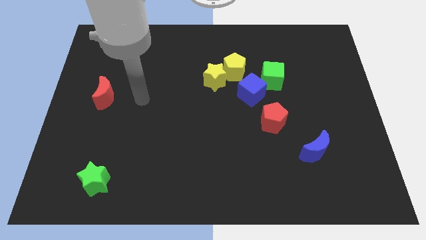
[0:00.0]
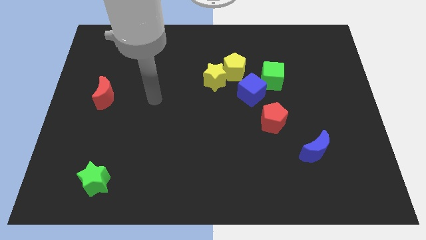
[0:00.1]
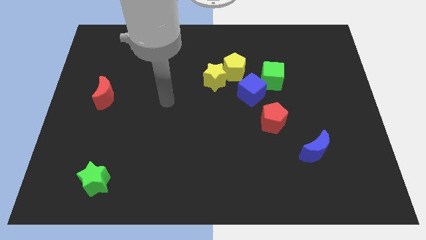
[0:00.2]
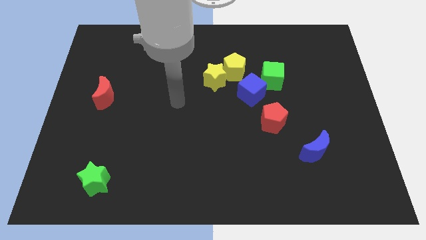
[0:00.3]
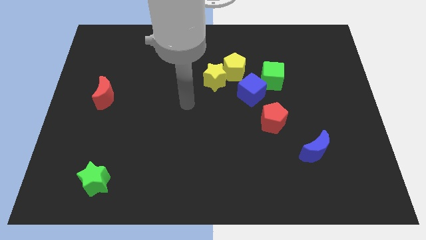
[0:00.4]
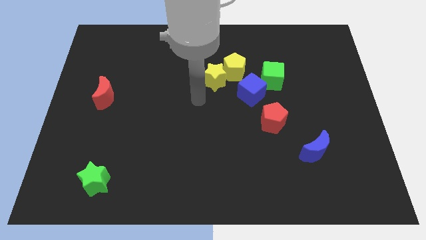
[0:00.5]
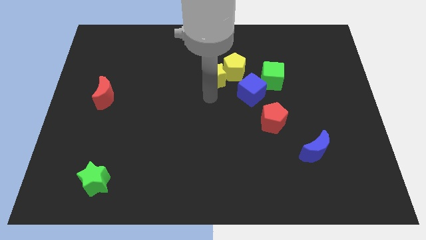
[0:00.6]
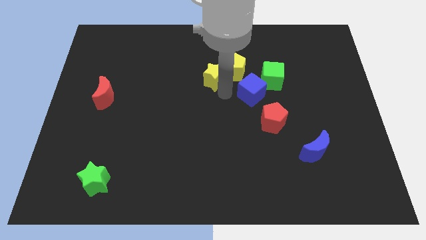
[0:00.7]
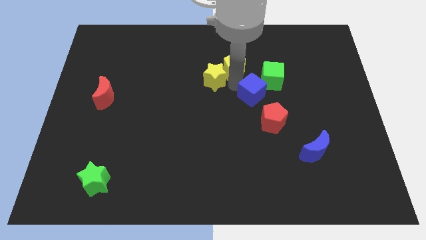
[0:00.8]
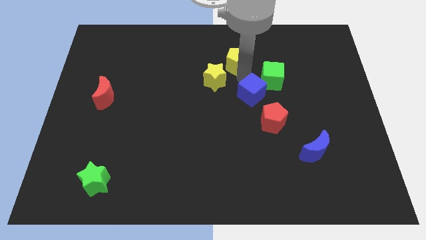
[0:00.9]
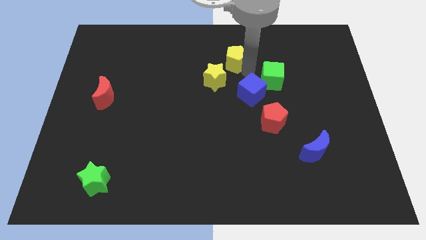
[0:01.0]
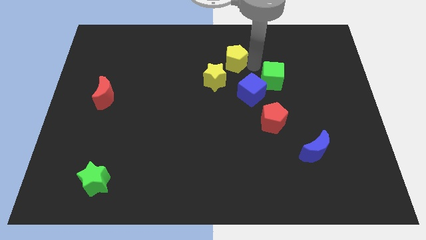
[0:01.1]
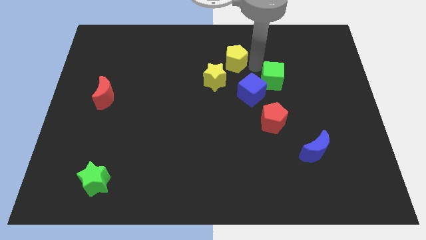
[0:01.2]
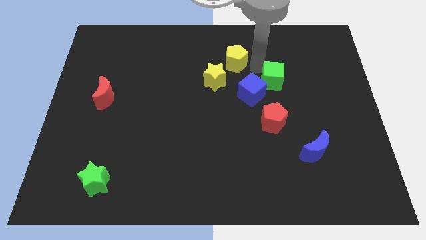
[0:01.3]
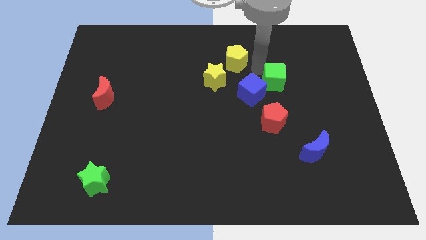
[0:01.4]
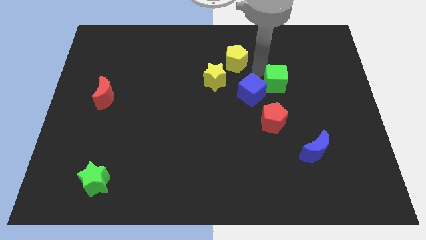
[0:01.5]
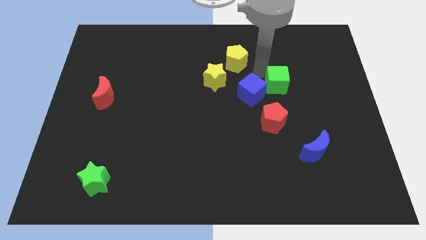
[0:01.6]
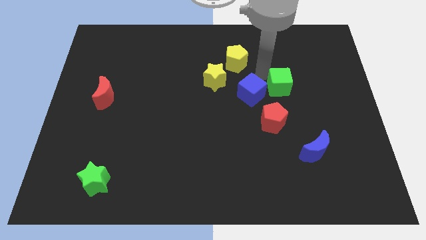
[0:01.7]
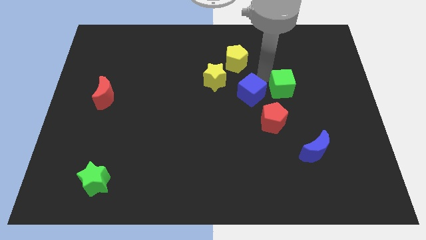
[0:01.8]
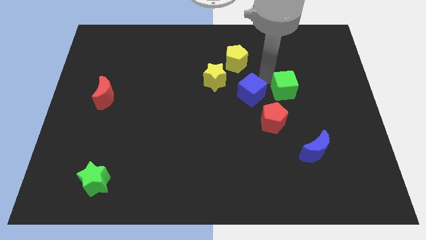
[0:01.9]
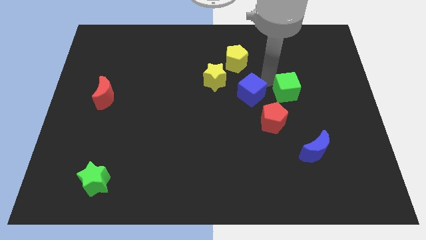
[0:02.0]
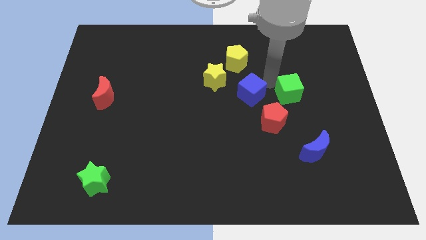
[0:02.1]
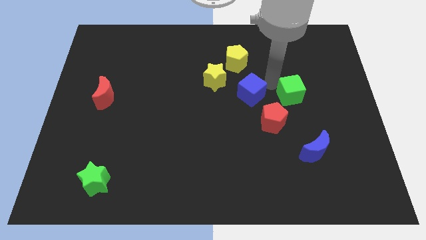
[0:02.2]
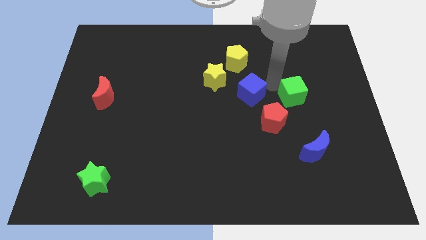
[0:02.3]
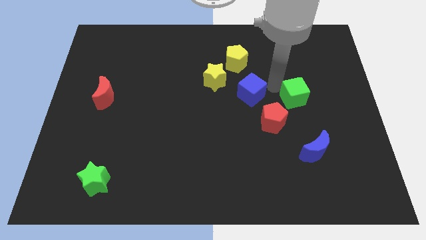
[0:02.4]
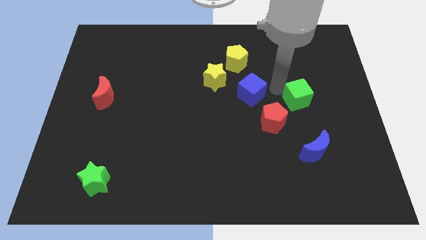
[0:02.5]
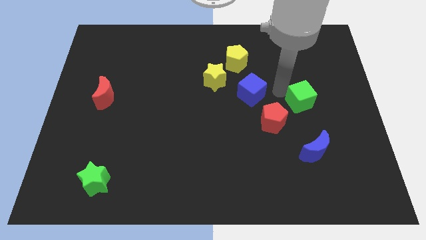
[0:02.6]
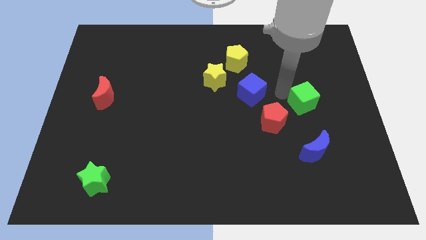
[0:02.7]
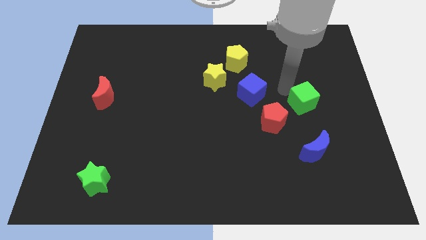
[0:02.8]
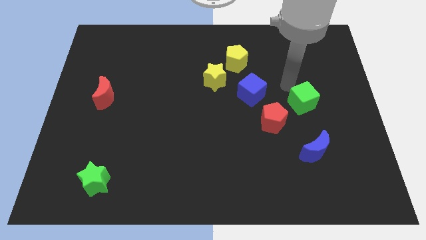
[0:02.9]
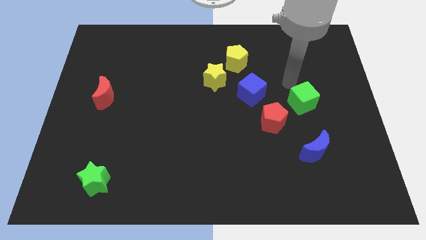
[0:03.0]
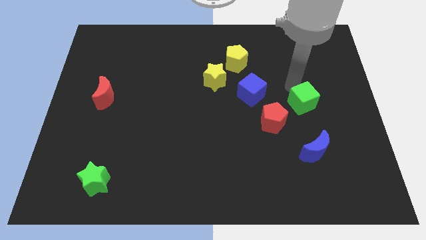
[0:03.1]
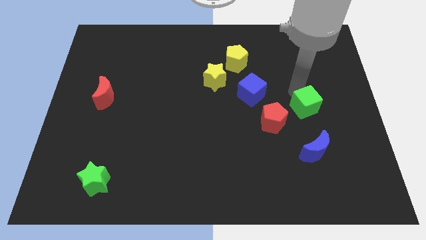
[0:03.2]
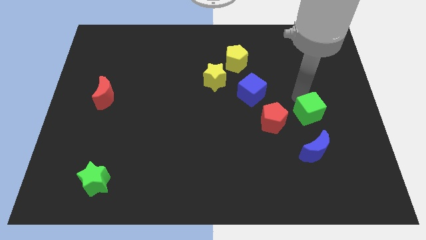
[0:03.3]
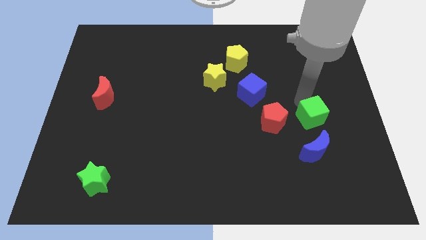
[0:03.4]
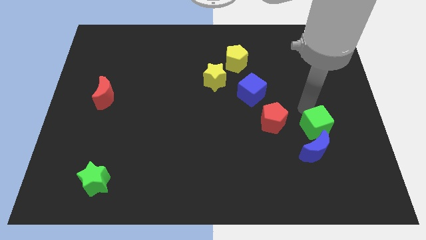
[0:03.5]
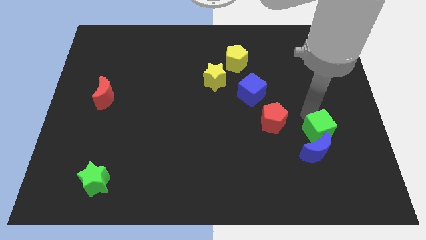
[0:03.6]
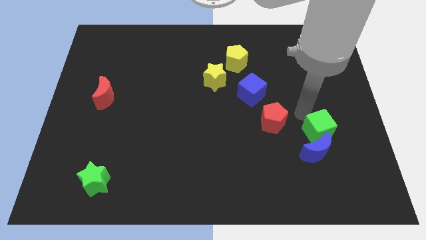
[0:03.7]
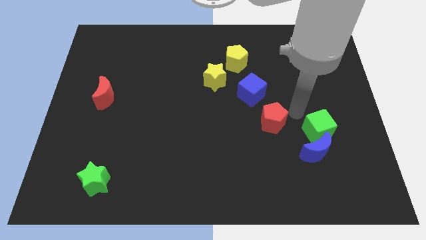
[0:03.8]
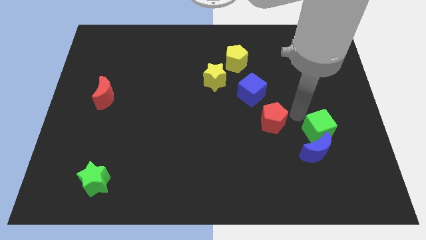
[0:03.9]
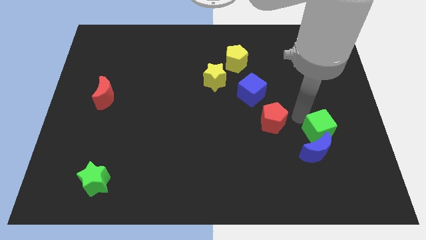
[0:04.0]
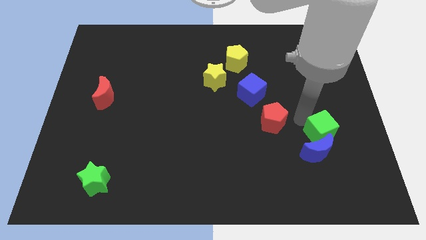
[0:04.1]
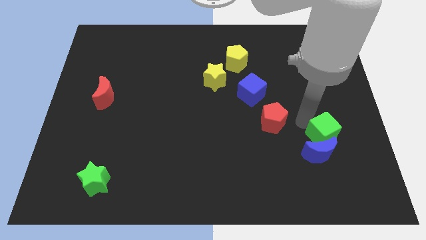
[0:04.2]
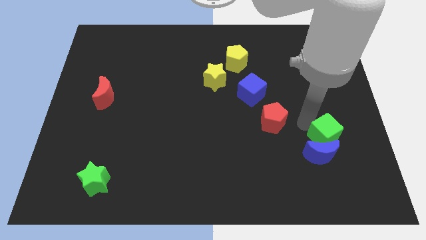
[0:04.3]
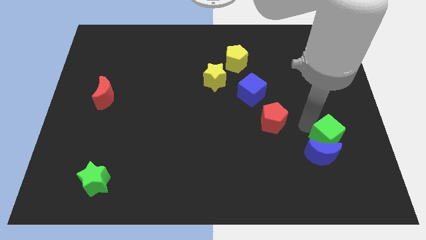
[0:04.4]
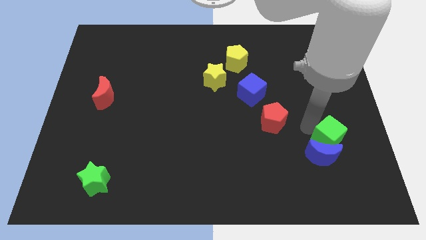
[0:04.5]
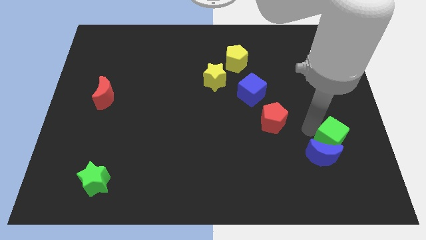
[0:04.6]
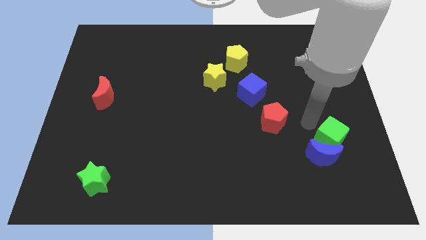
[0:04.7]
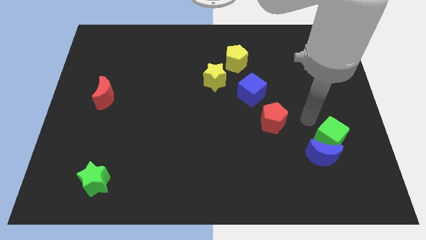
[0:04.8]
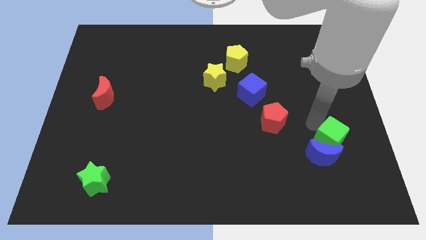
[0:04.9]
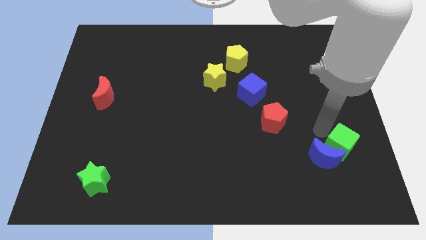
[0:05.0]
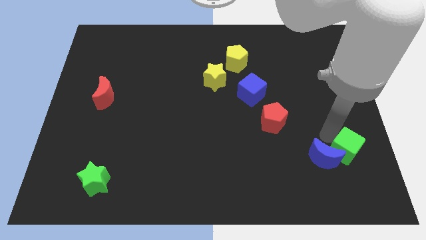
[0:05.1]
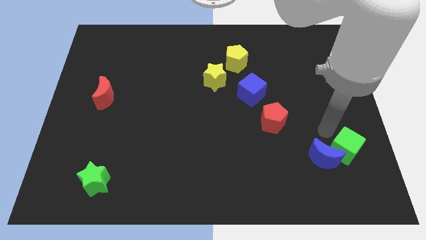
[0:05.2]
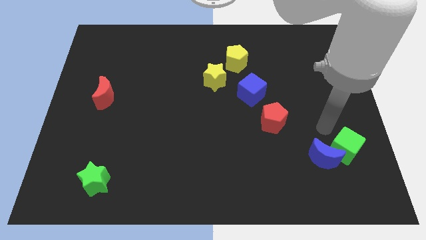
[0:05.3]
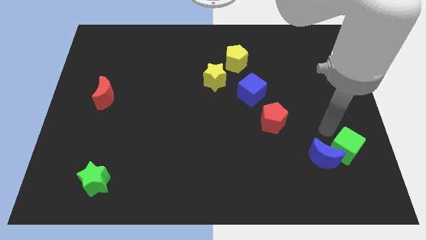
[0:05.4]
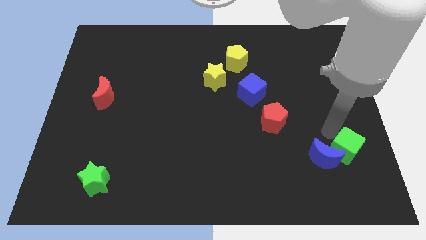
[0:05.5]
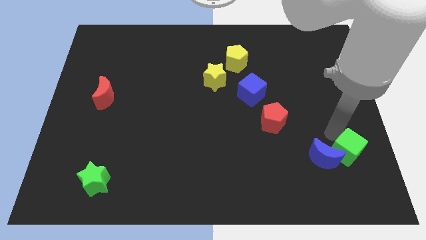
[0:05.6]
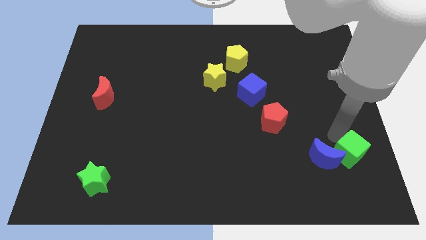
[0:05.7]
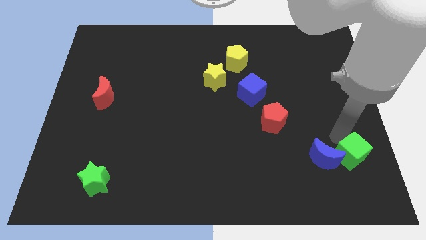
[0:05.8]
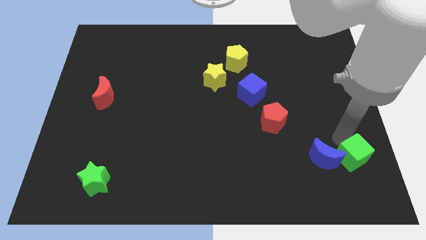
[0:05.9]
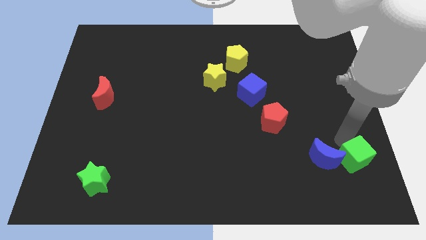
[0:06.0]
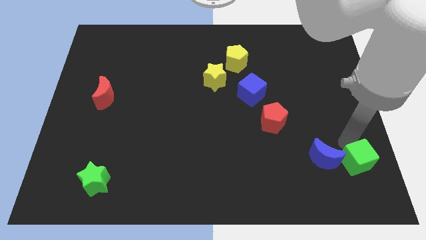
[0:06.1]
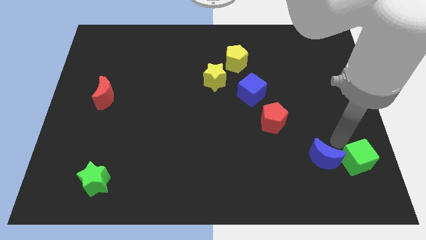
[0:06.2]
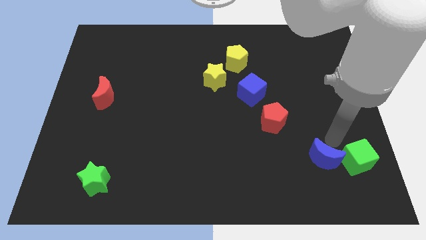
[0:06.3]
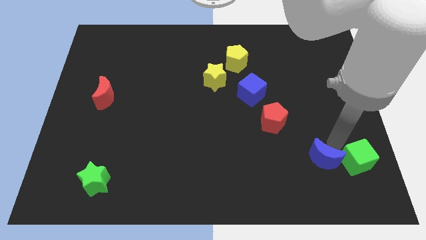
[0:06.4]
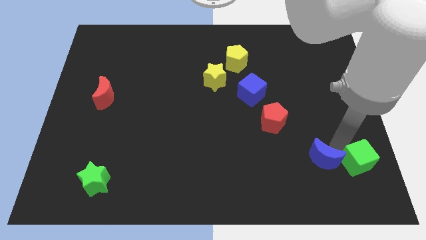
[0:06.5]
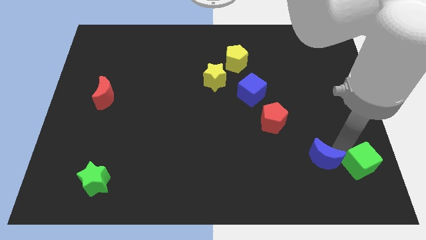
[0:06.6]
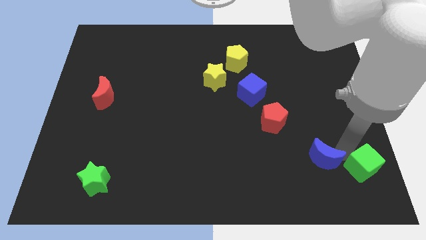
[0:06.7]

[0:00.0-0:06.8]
push the green cube to the bottom right
